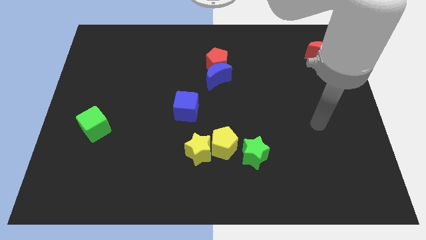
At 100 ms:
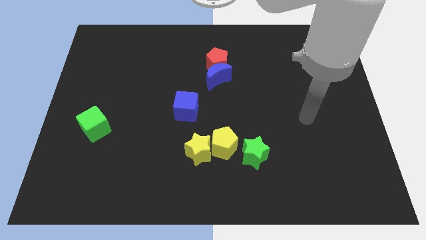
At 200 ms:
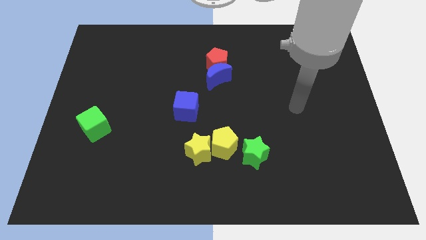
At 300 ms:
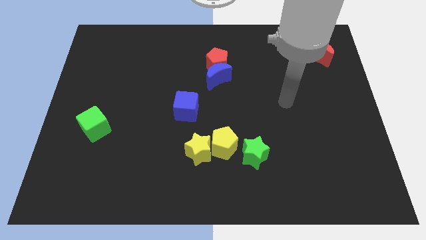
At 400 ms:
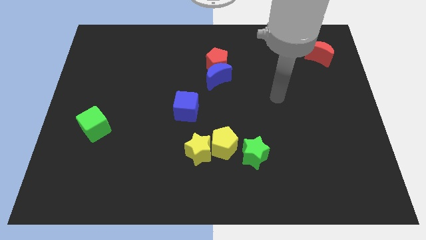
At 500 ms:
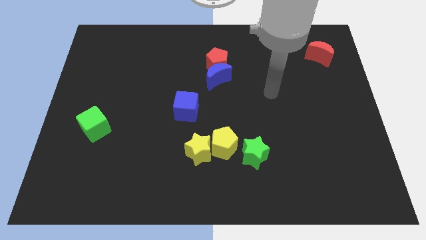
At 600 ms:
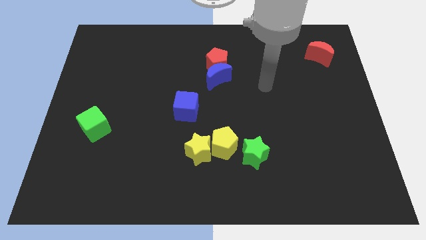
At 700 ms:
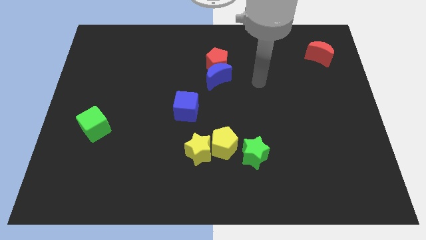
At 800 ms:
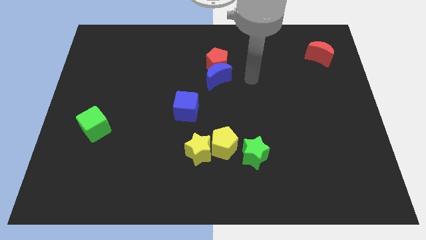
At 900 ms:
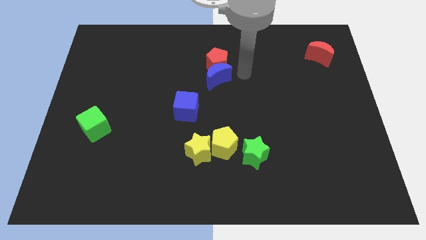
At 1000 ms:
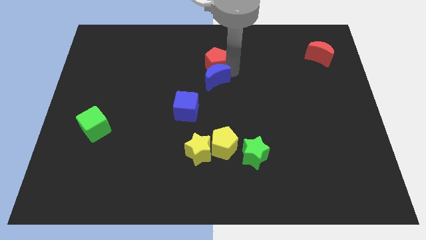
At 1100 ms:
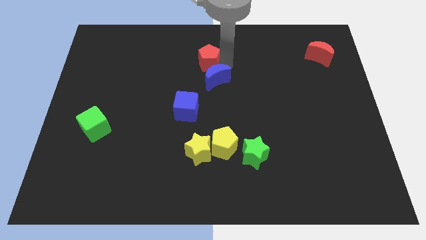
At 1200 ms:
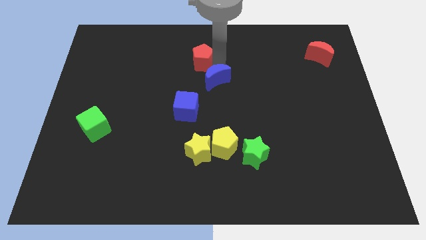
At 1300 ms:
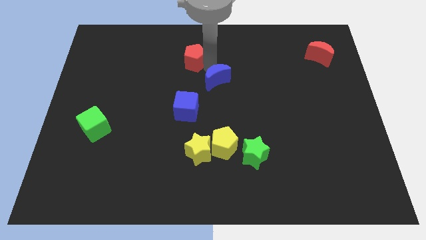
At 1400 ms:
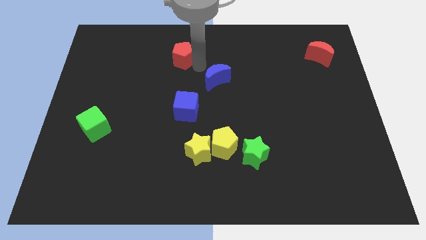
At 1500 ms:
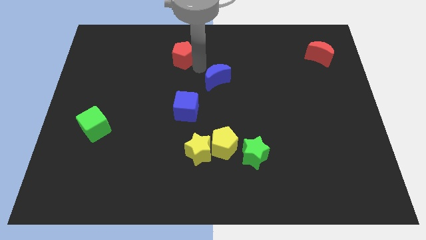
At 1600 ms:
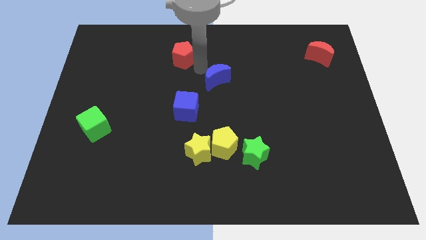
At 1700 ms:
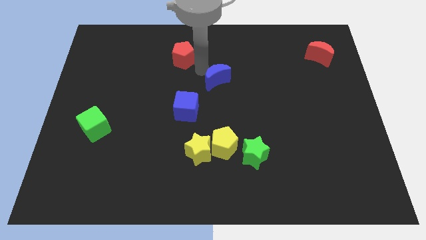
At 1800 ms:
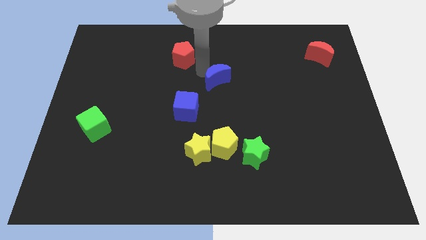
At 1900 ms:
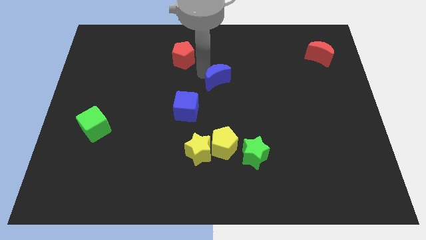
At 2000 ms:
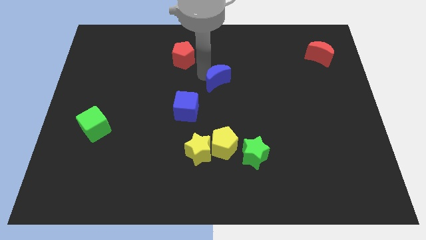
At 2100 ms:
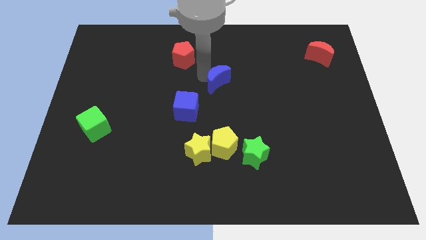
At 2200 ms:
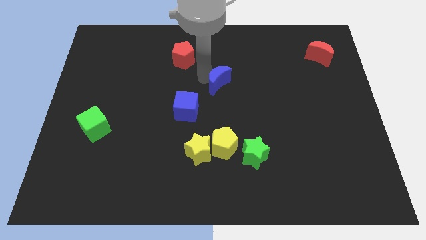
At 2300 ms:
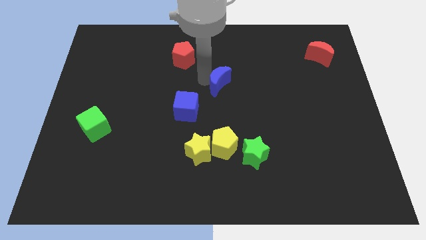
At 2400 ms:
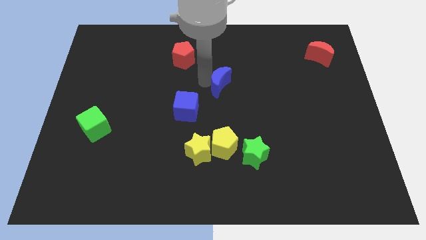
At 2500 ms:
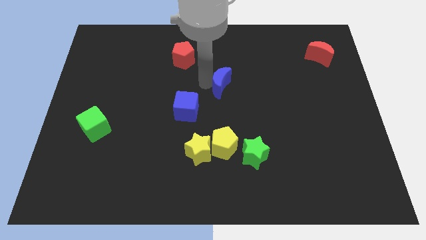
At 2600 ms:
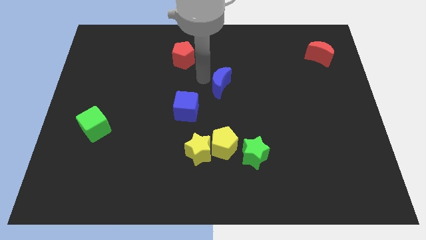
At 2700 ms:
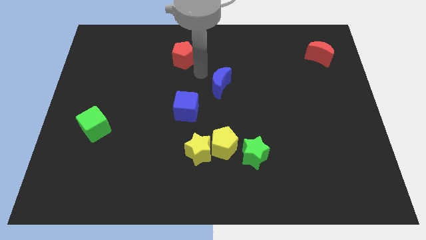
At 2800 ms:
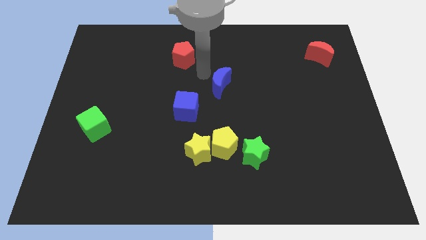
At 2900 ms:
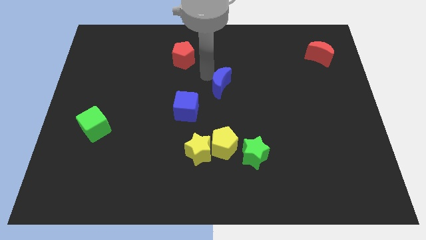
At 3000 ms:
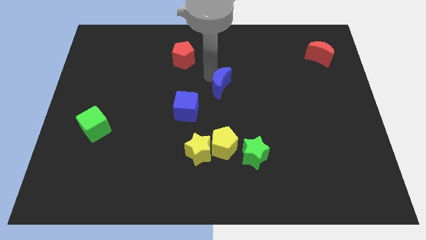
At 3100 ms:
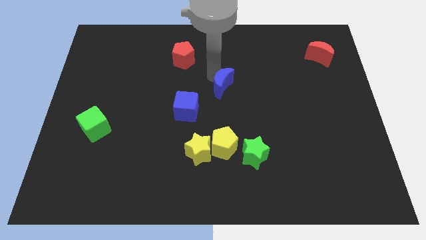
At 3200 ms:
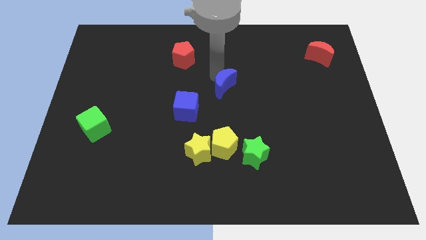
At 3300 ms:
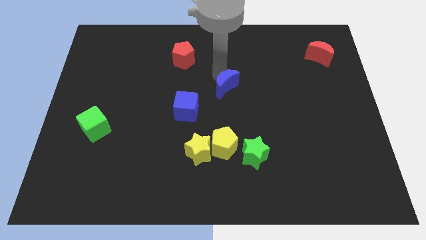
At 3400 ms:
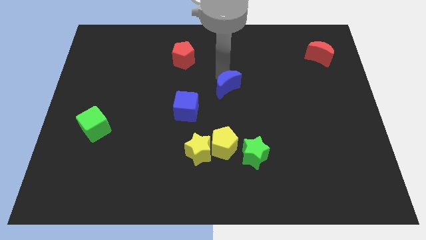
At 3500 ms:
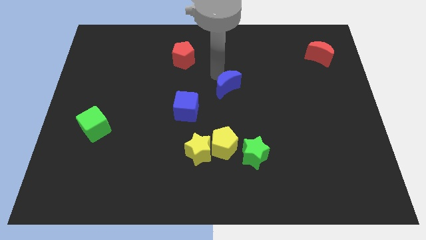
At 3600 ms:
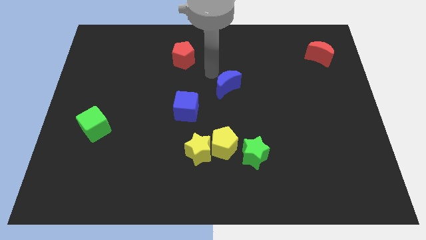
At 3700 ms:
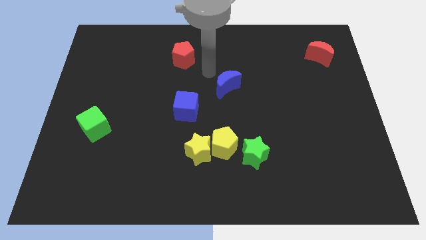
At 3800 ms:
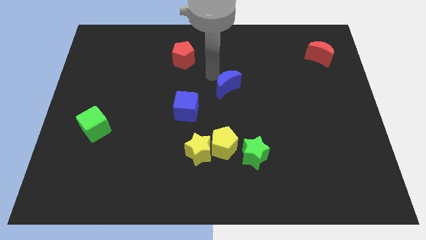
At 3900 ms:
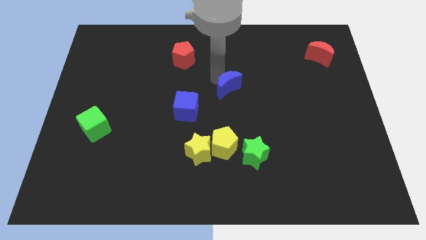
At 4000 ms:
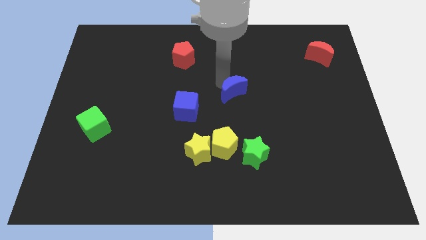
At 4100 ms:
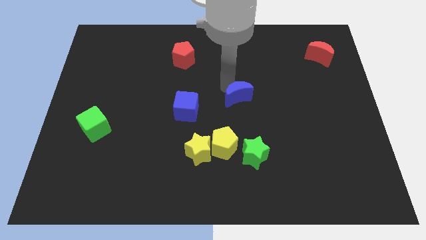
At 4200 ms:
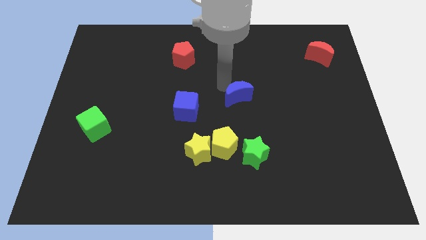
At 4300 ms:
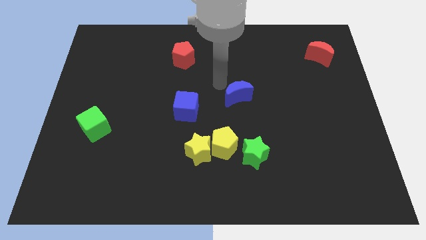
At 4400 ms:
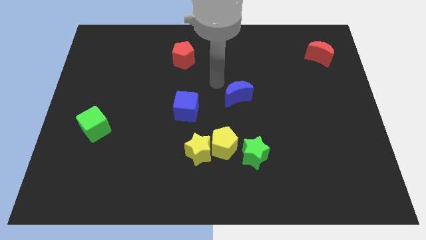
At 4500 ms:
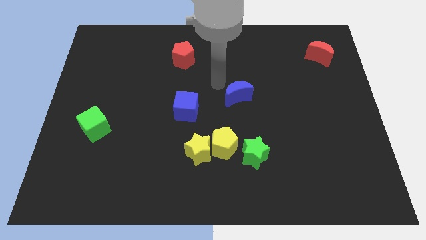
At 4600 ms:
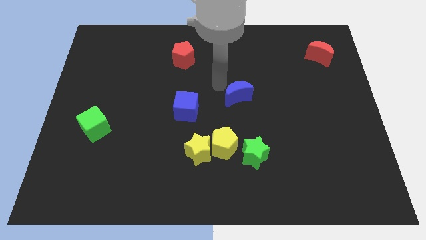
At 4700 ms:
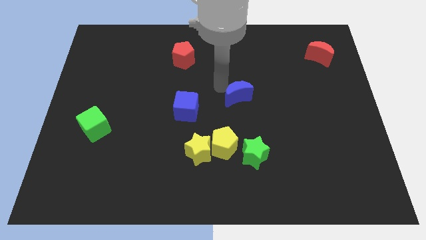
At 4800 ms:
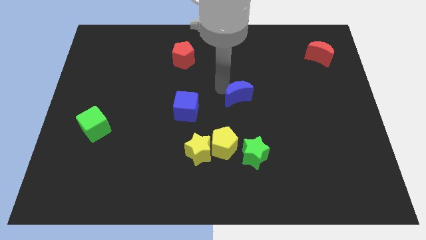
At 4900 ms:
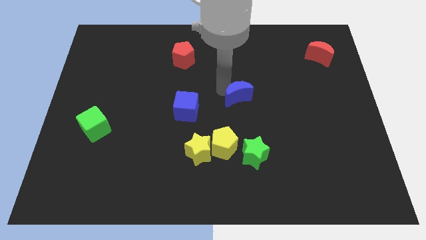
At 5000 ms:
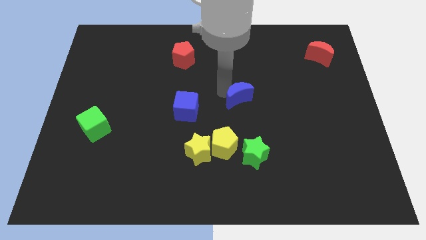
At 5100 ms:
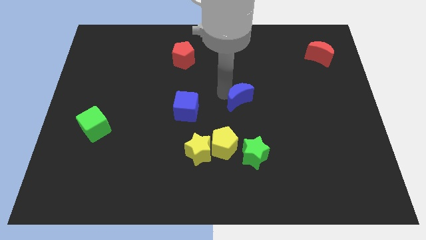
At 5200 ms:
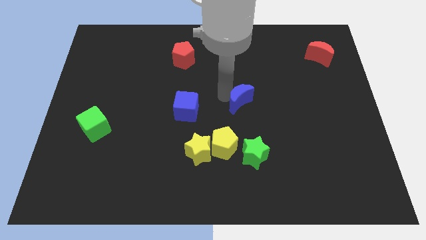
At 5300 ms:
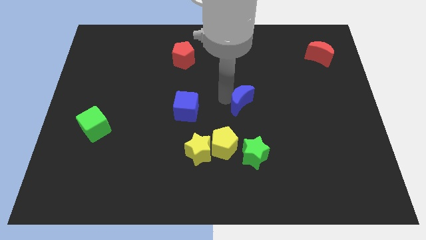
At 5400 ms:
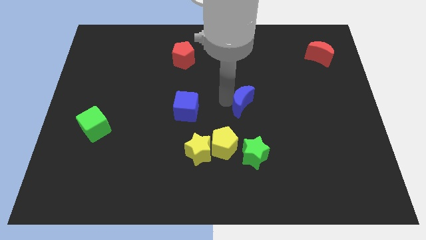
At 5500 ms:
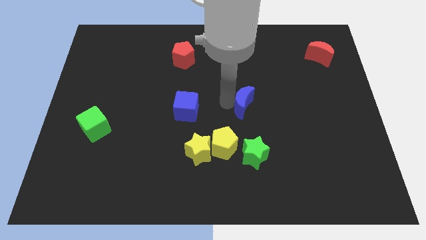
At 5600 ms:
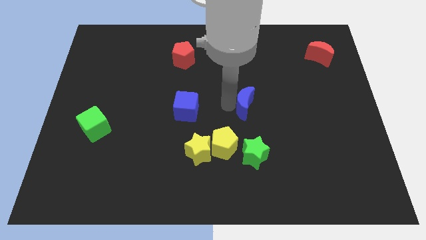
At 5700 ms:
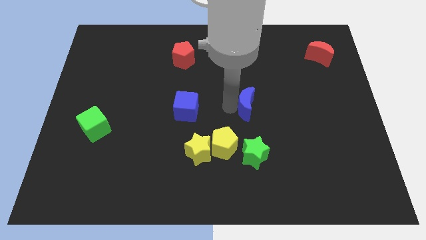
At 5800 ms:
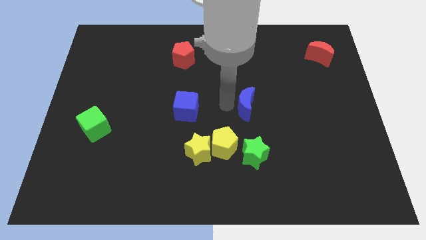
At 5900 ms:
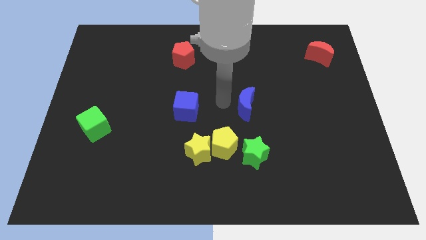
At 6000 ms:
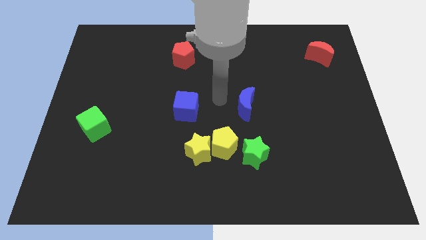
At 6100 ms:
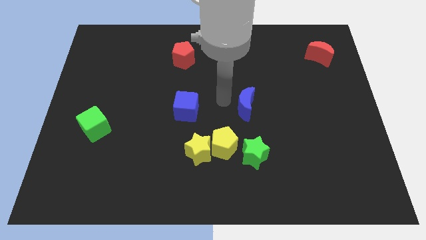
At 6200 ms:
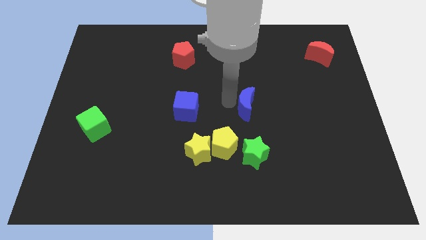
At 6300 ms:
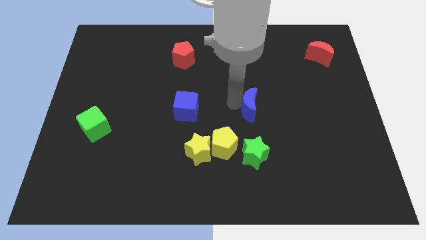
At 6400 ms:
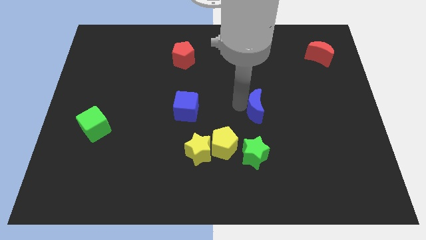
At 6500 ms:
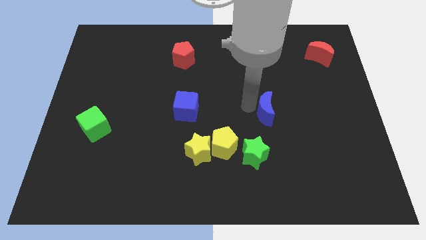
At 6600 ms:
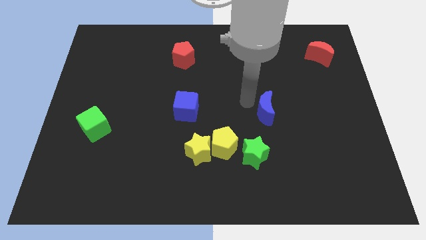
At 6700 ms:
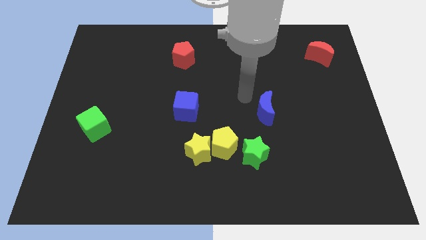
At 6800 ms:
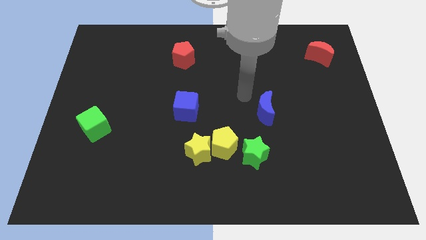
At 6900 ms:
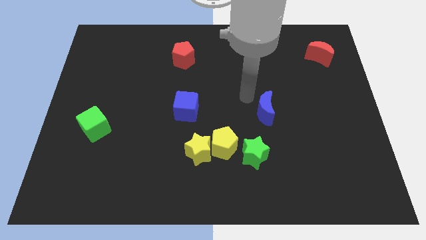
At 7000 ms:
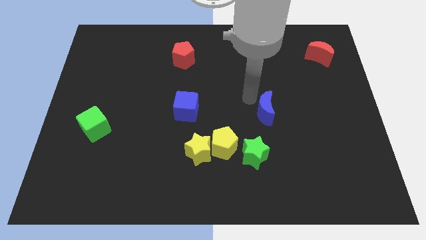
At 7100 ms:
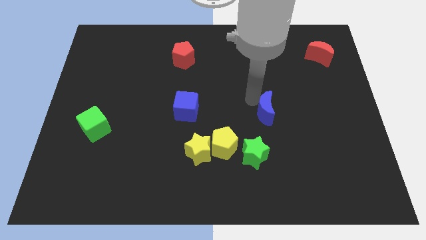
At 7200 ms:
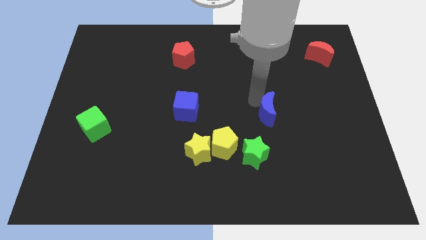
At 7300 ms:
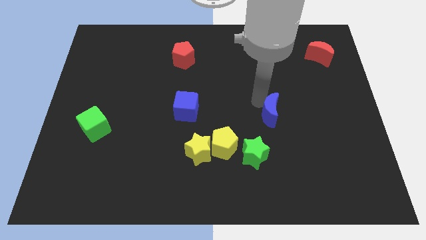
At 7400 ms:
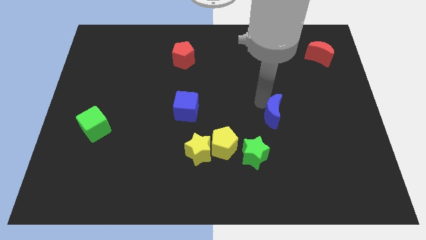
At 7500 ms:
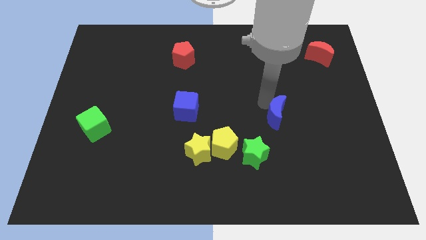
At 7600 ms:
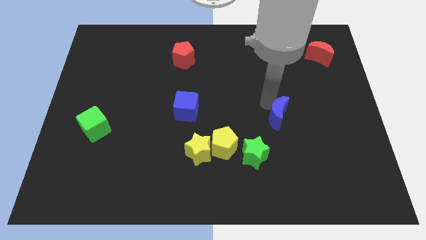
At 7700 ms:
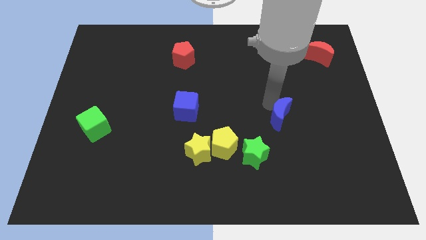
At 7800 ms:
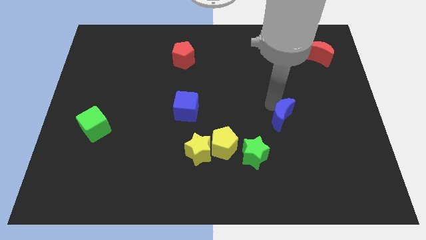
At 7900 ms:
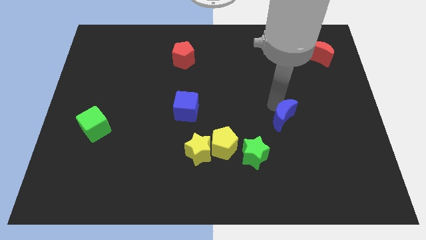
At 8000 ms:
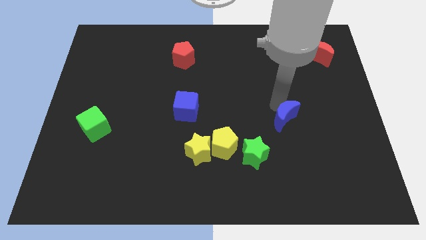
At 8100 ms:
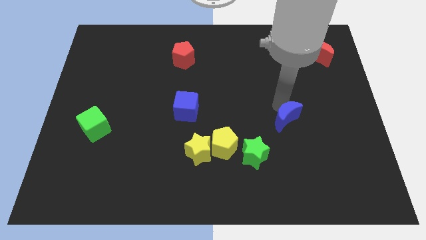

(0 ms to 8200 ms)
move the blue moon downwards and to the right
